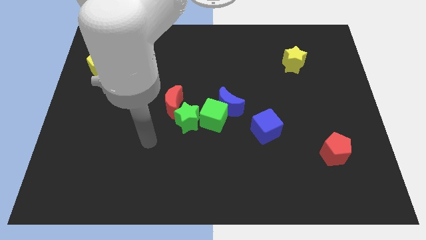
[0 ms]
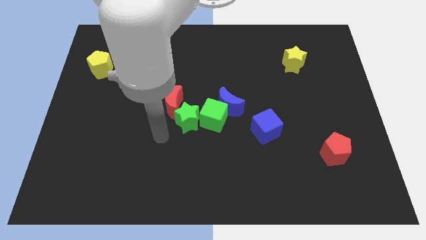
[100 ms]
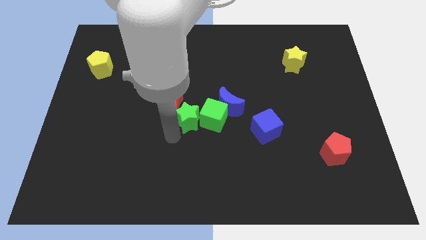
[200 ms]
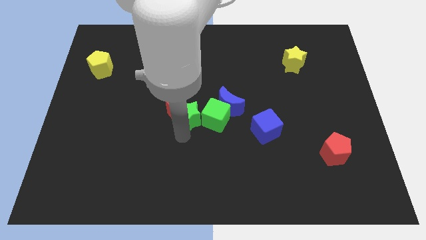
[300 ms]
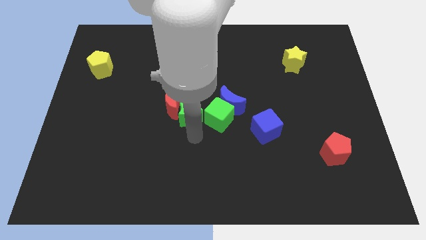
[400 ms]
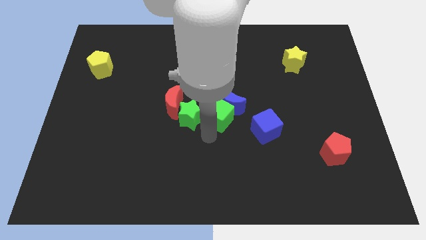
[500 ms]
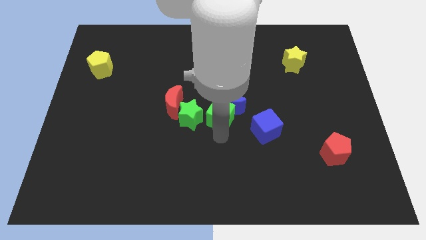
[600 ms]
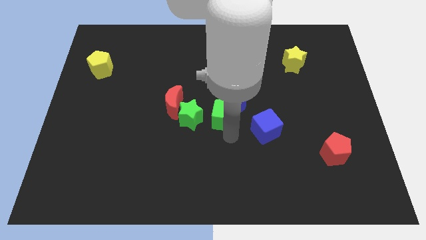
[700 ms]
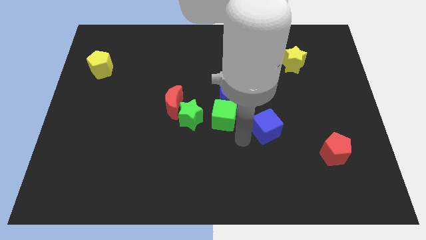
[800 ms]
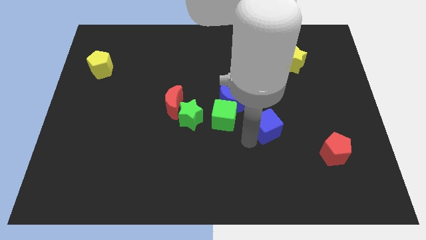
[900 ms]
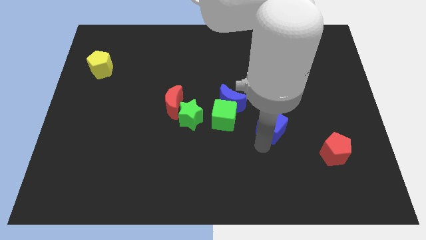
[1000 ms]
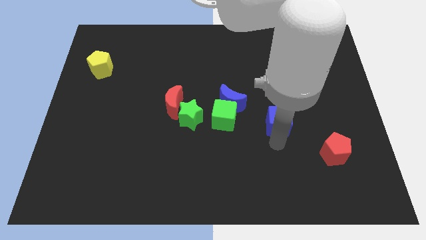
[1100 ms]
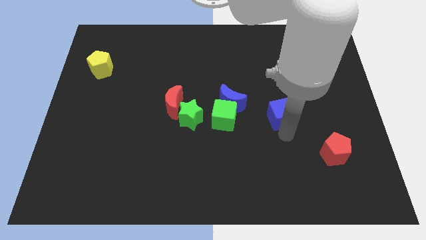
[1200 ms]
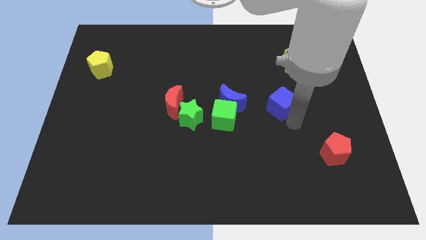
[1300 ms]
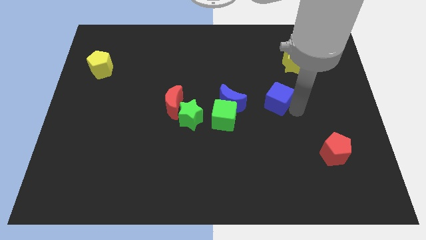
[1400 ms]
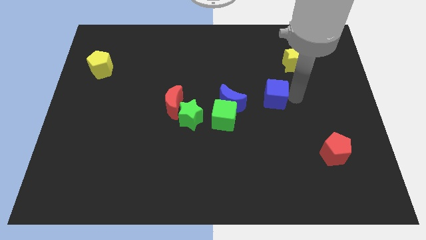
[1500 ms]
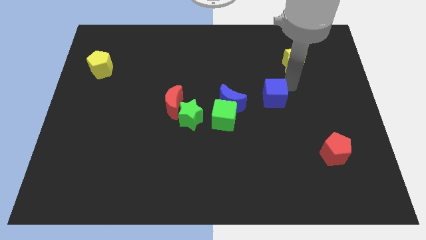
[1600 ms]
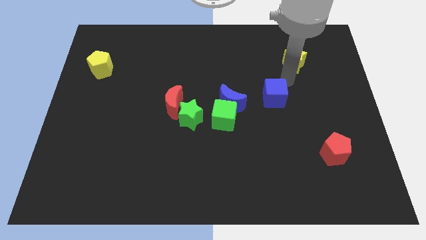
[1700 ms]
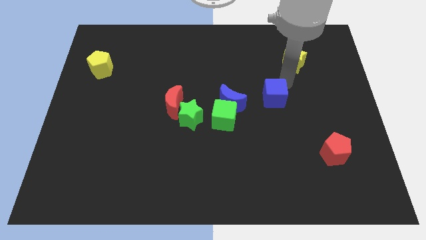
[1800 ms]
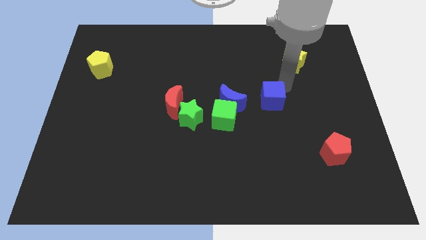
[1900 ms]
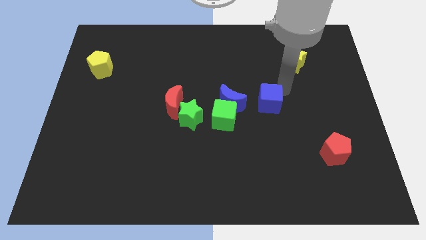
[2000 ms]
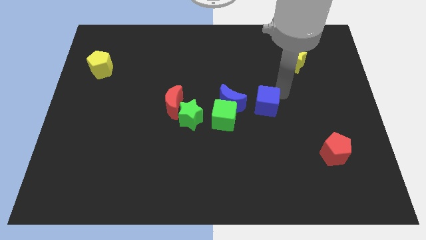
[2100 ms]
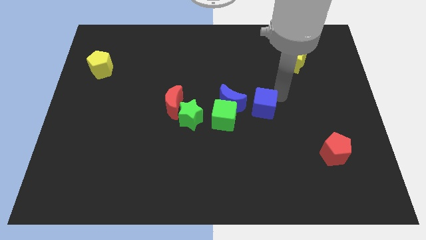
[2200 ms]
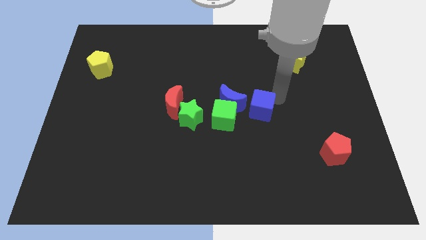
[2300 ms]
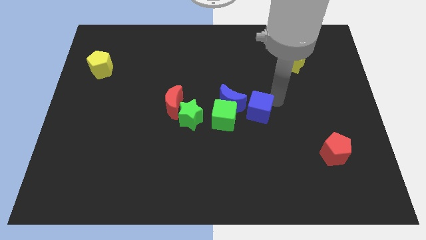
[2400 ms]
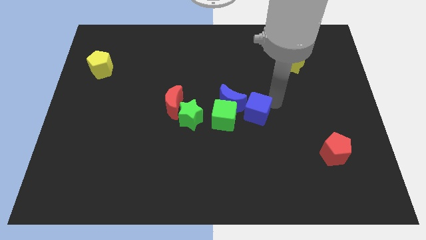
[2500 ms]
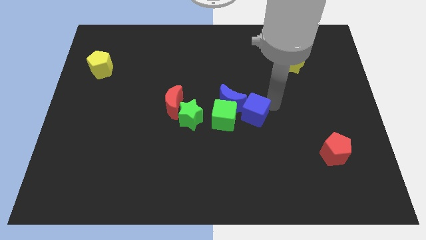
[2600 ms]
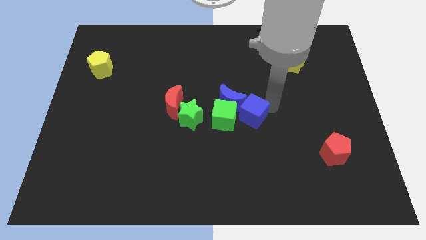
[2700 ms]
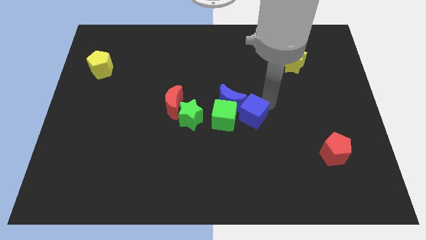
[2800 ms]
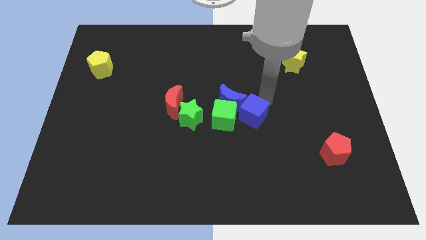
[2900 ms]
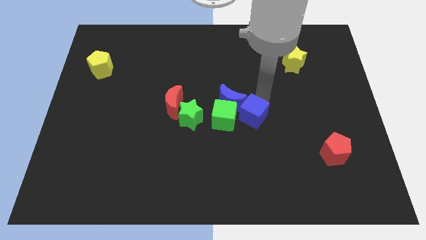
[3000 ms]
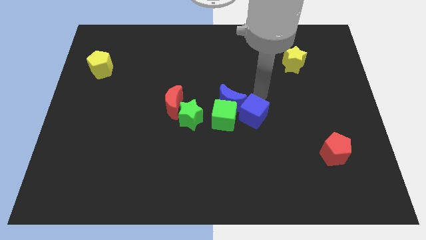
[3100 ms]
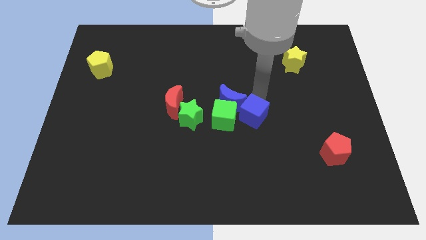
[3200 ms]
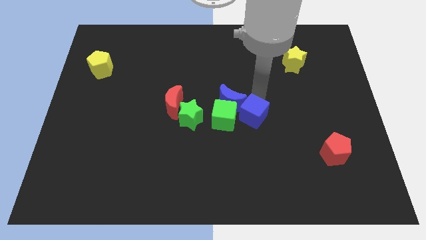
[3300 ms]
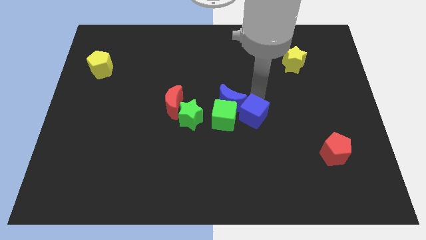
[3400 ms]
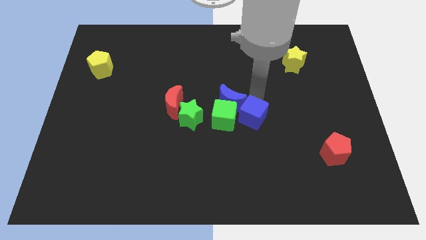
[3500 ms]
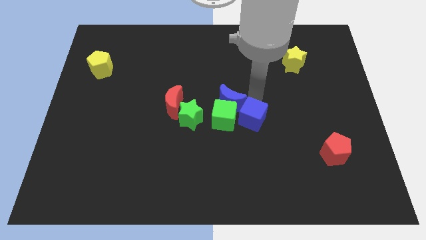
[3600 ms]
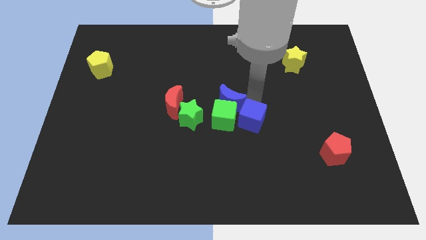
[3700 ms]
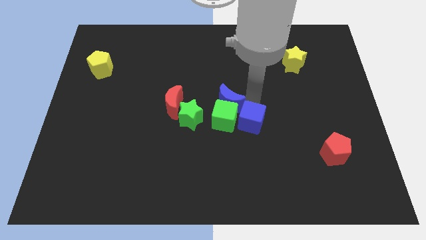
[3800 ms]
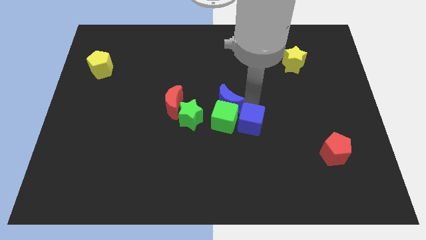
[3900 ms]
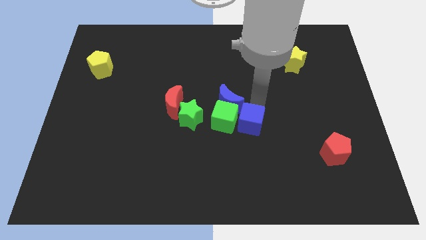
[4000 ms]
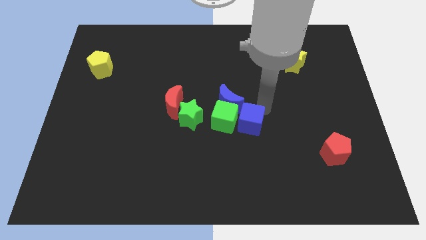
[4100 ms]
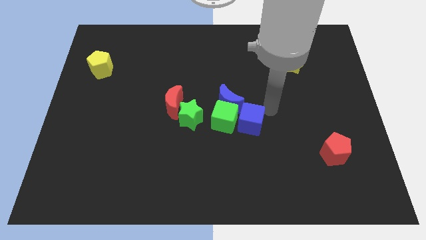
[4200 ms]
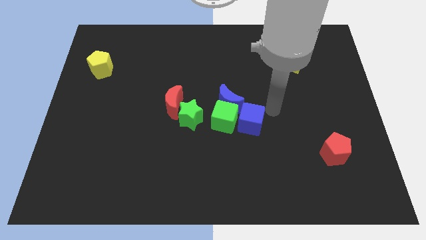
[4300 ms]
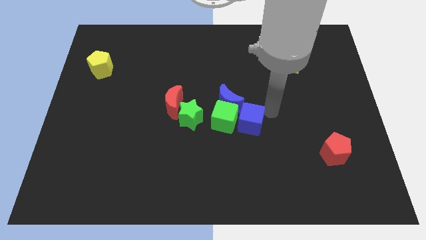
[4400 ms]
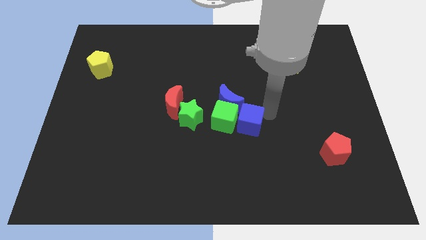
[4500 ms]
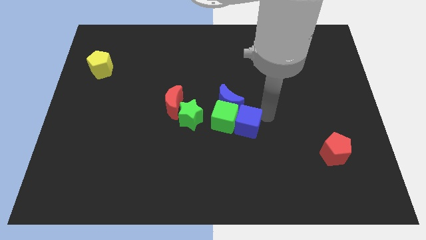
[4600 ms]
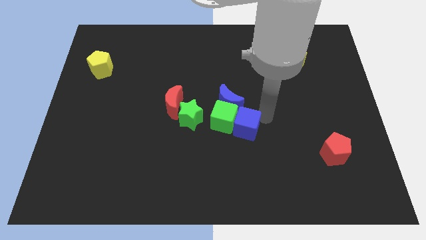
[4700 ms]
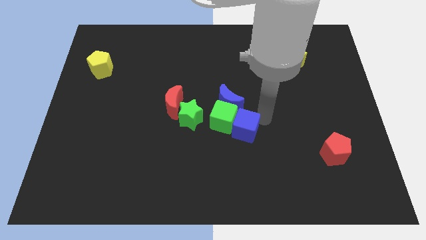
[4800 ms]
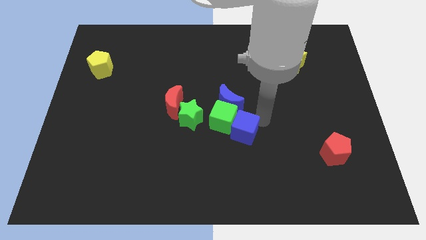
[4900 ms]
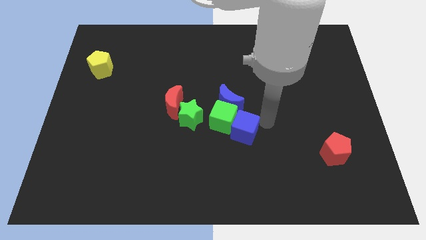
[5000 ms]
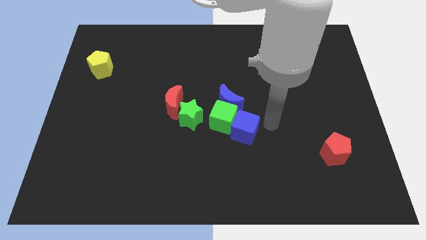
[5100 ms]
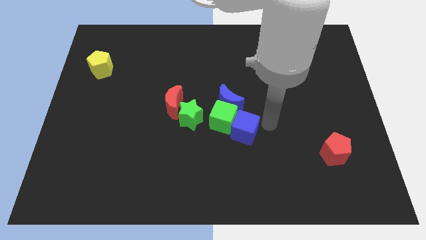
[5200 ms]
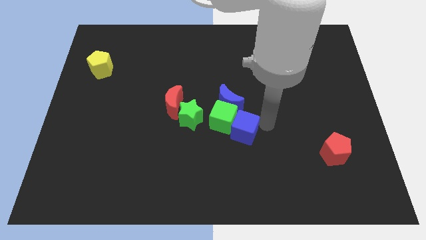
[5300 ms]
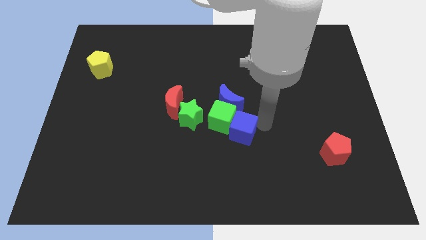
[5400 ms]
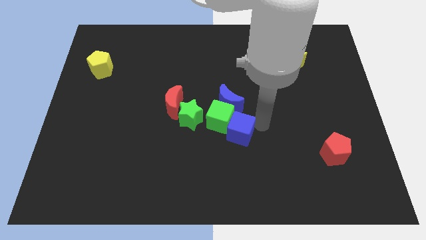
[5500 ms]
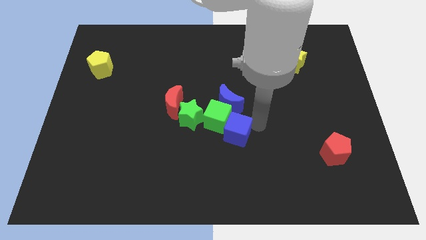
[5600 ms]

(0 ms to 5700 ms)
move the blue cube diagonally down and to the right of the green star

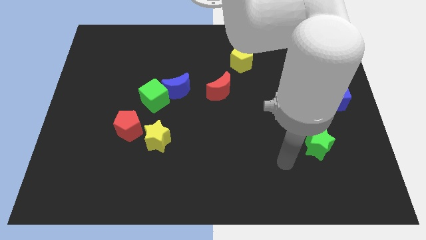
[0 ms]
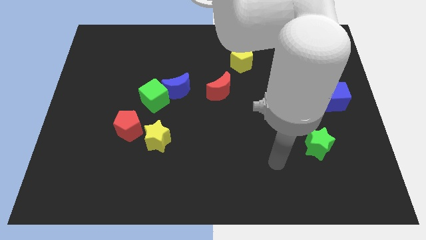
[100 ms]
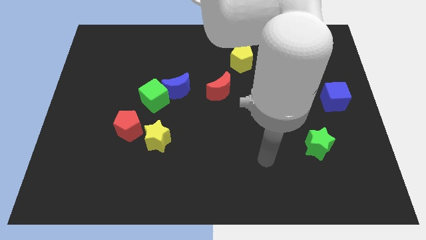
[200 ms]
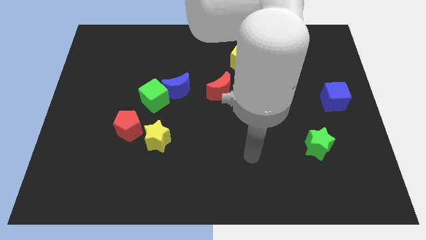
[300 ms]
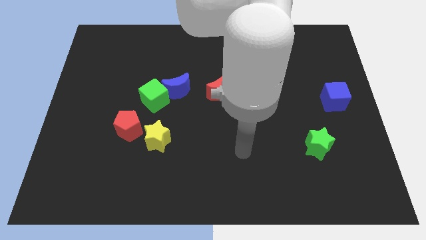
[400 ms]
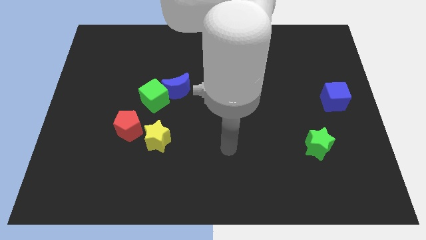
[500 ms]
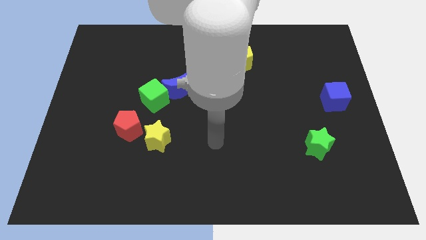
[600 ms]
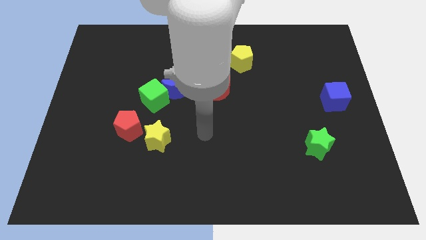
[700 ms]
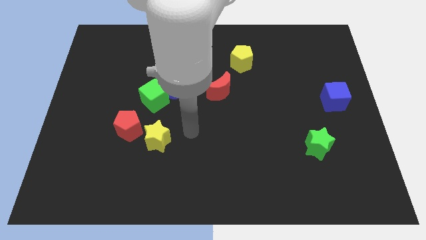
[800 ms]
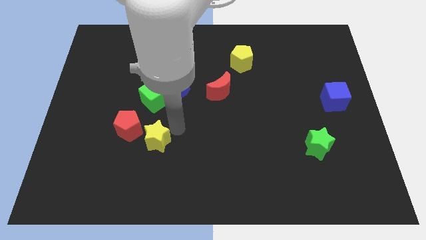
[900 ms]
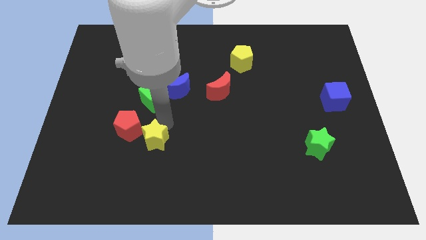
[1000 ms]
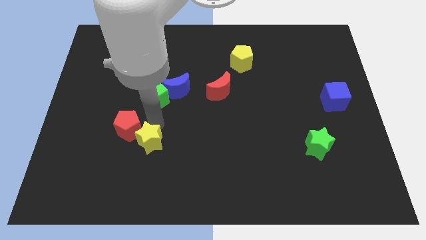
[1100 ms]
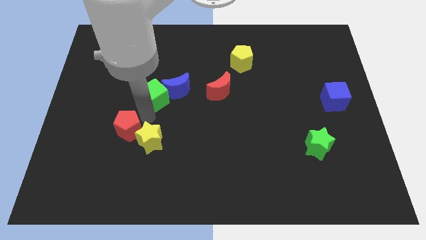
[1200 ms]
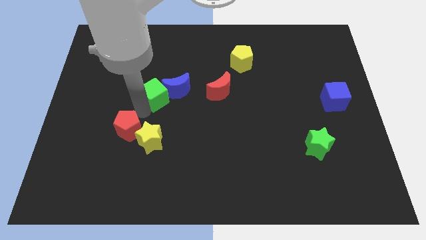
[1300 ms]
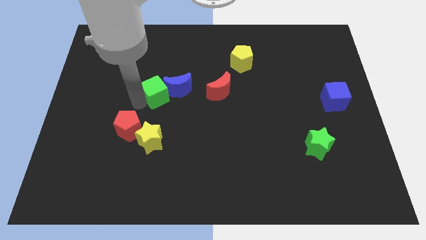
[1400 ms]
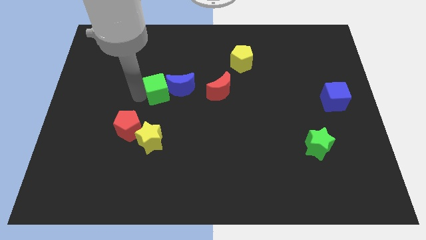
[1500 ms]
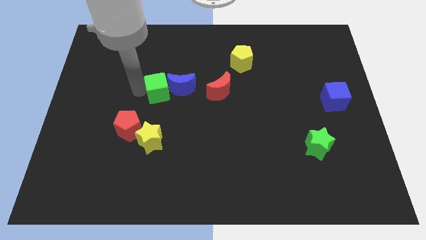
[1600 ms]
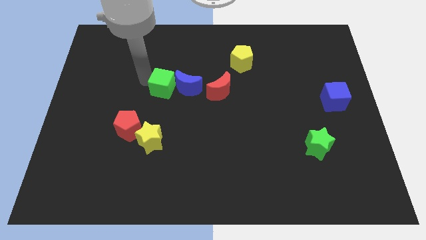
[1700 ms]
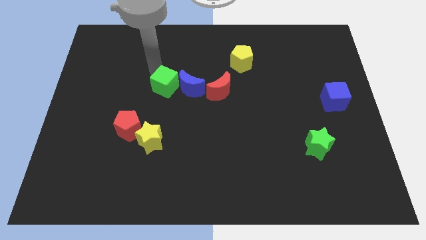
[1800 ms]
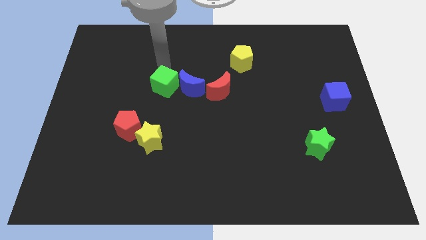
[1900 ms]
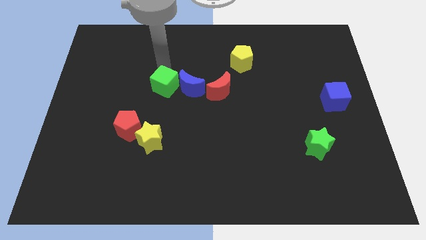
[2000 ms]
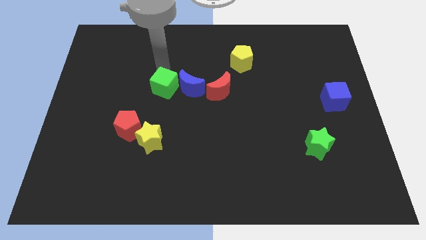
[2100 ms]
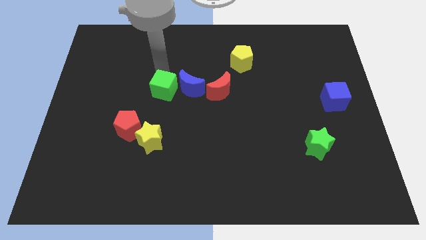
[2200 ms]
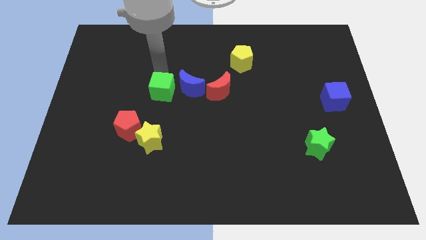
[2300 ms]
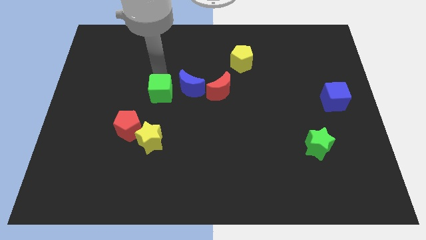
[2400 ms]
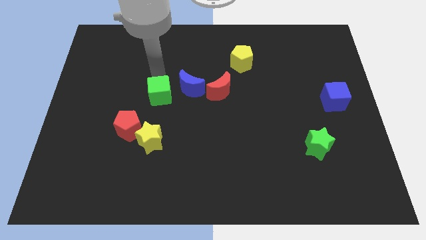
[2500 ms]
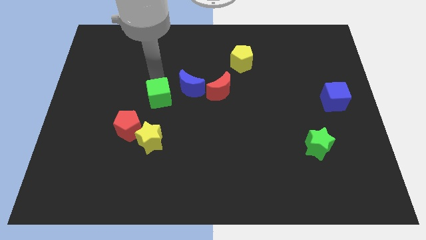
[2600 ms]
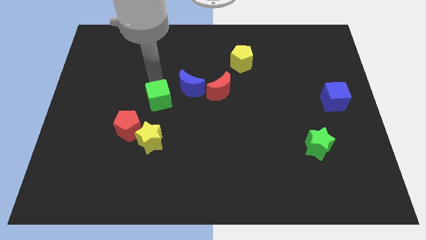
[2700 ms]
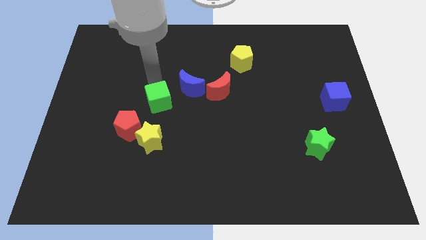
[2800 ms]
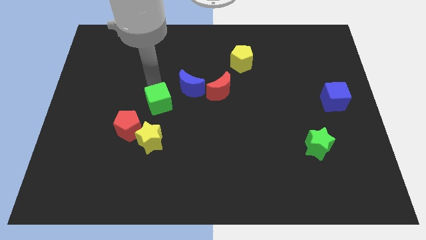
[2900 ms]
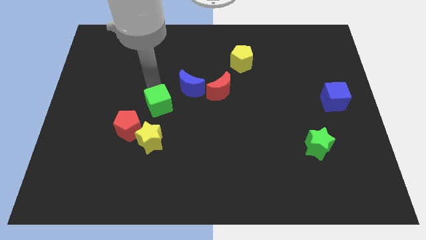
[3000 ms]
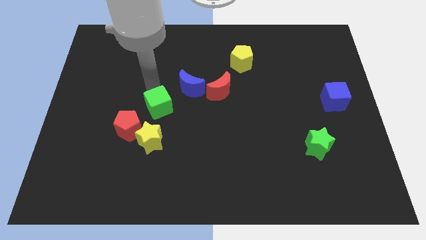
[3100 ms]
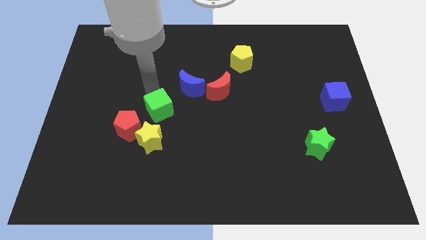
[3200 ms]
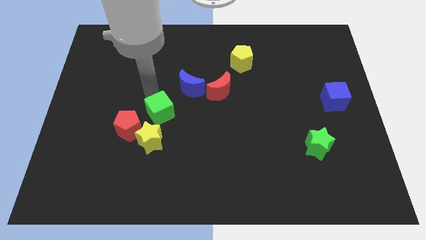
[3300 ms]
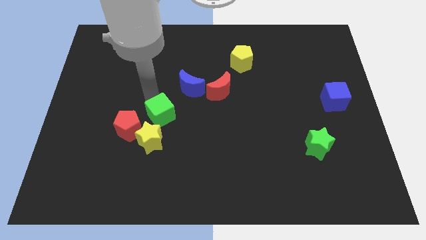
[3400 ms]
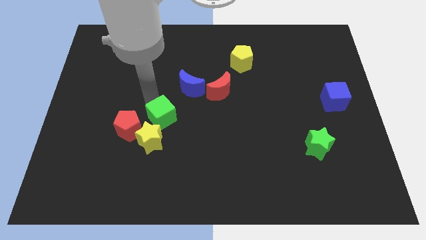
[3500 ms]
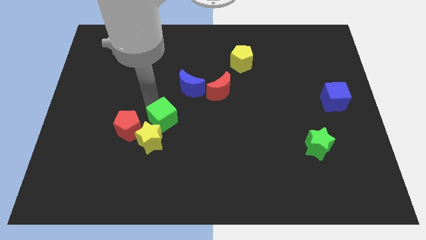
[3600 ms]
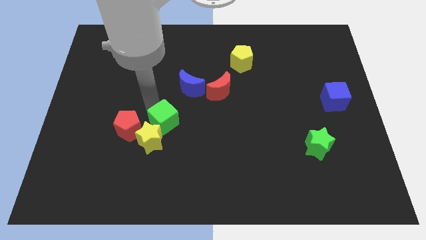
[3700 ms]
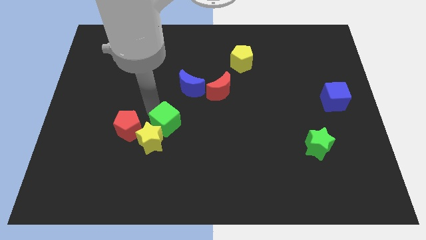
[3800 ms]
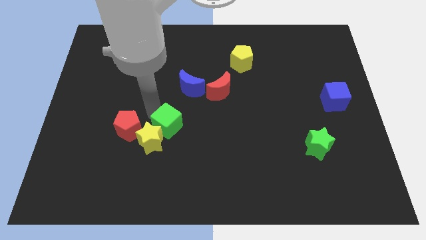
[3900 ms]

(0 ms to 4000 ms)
put the green cube to the bottom of the blue moon
